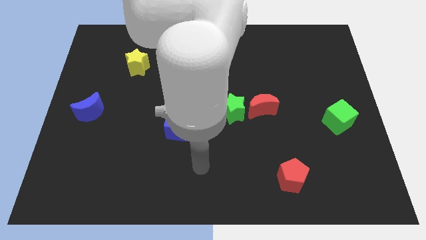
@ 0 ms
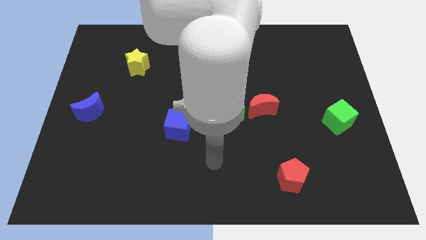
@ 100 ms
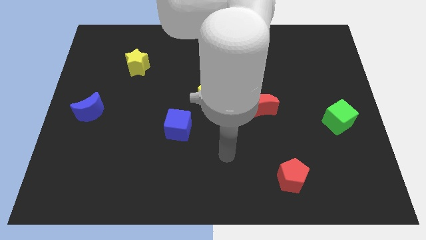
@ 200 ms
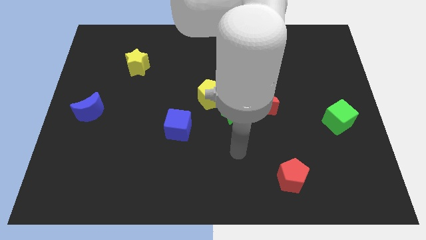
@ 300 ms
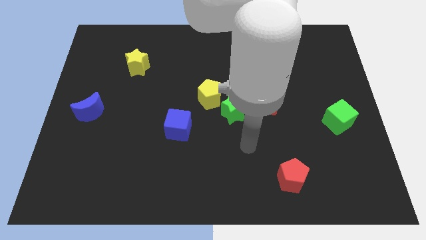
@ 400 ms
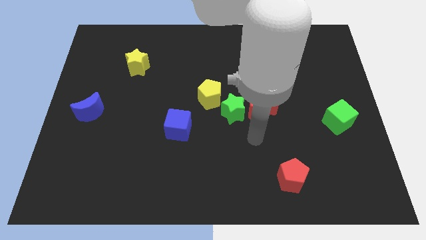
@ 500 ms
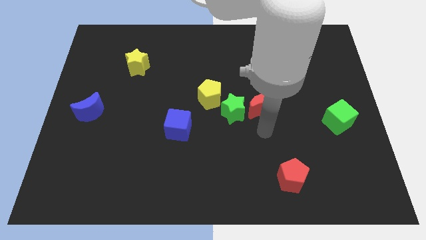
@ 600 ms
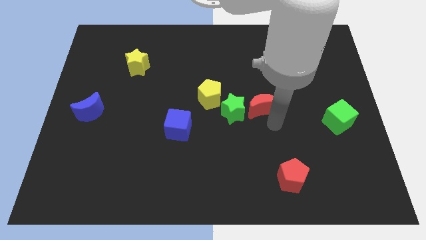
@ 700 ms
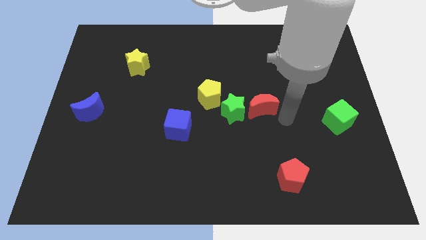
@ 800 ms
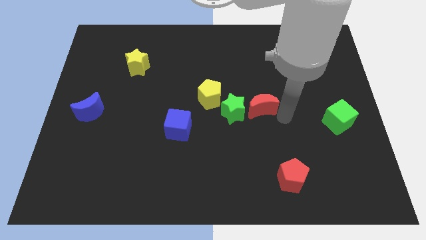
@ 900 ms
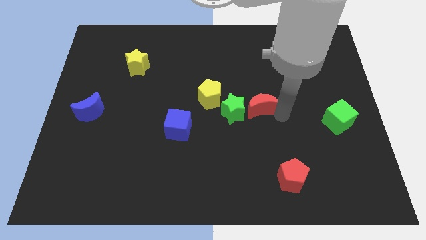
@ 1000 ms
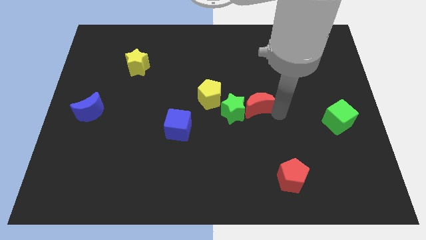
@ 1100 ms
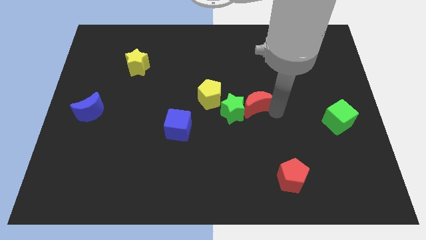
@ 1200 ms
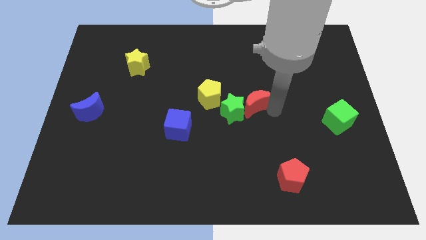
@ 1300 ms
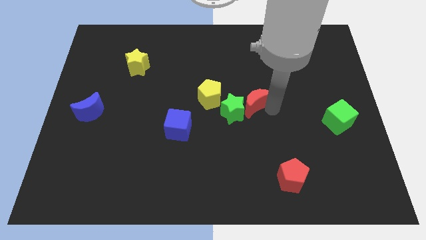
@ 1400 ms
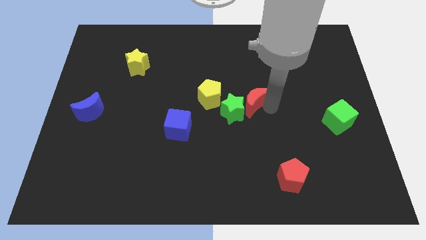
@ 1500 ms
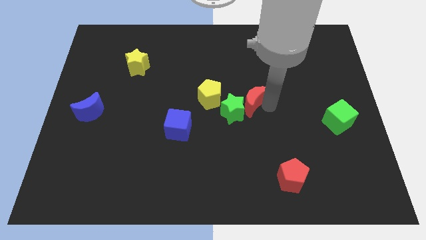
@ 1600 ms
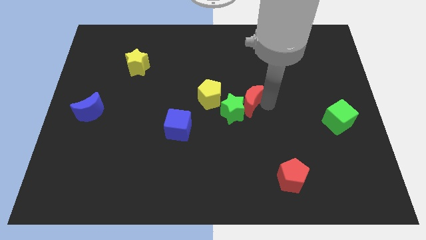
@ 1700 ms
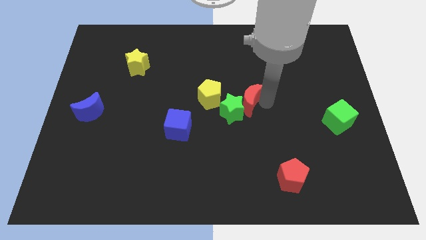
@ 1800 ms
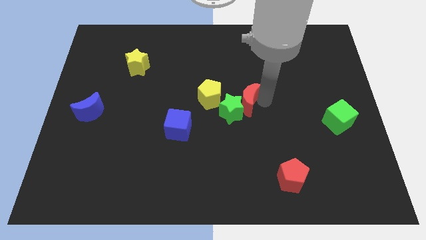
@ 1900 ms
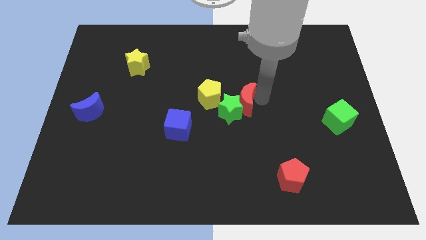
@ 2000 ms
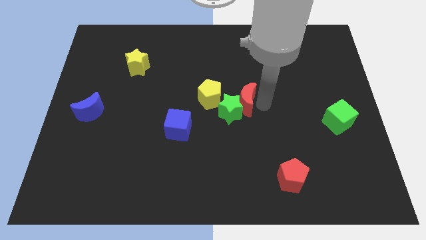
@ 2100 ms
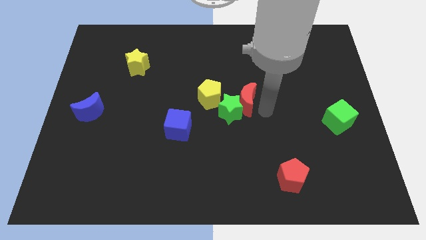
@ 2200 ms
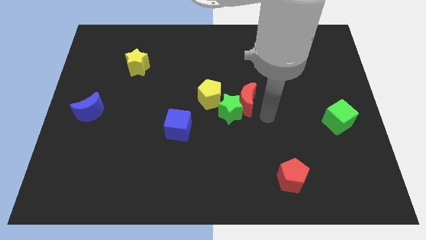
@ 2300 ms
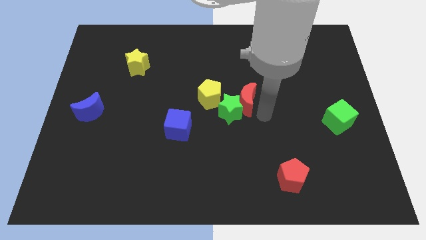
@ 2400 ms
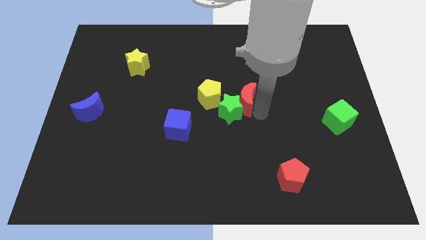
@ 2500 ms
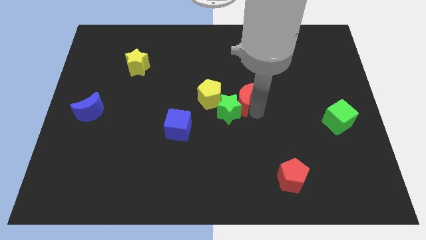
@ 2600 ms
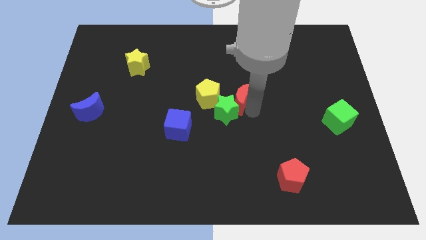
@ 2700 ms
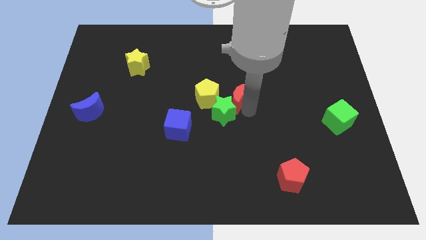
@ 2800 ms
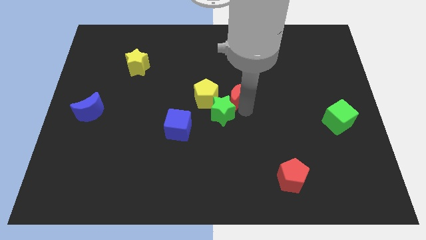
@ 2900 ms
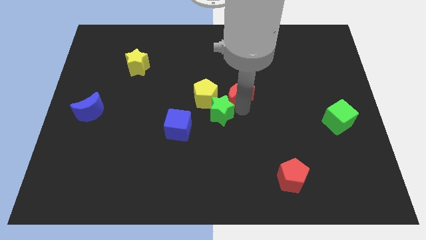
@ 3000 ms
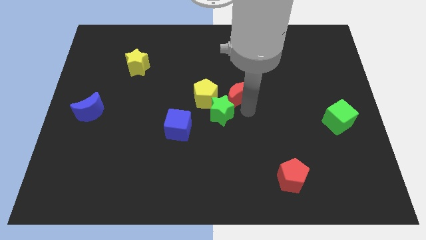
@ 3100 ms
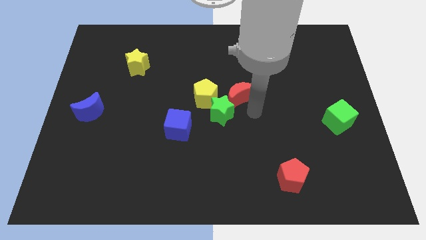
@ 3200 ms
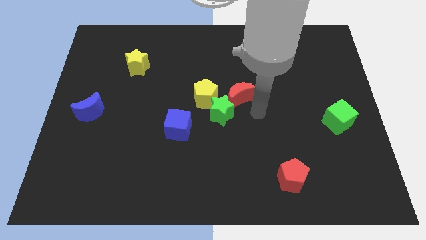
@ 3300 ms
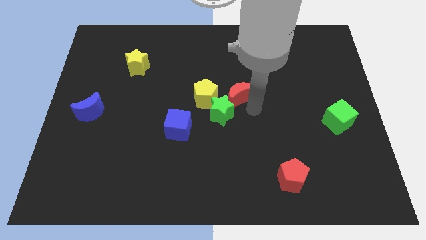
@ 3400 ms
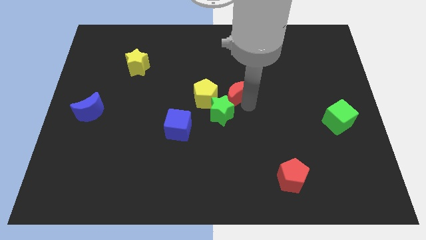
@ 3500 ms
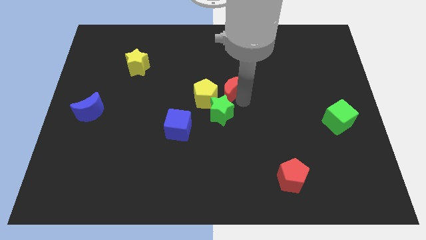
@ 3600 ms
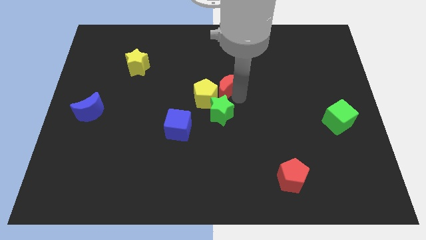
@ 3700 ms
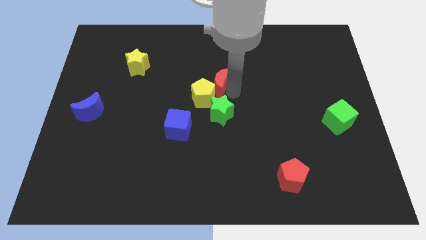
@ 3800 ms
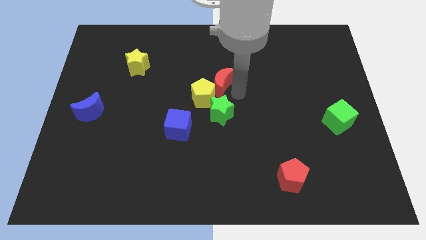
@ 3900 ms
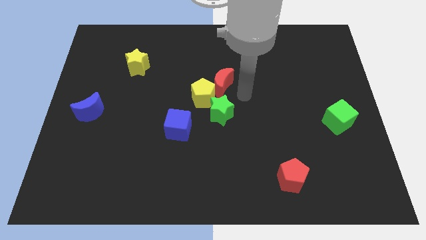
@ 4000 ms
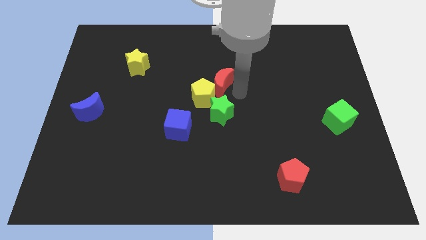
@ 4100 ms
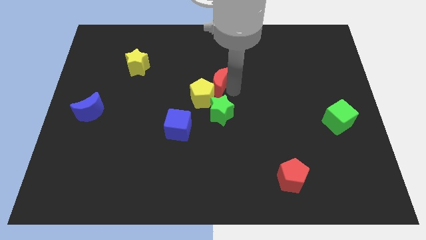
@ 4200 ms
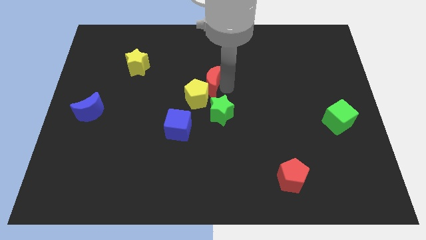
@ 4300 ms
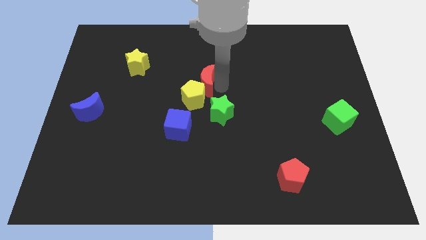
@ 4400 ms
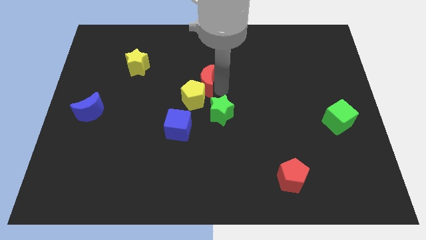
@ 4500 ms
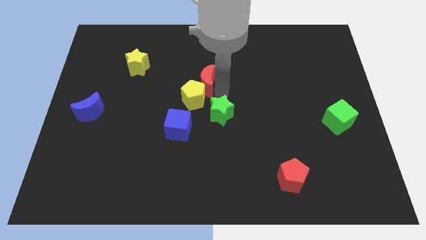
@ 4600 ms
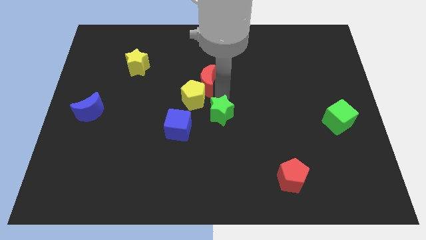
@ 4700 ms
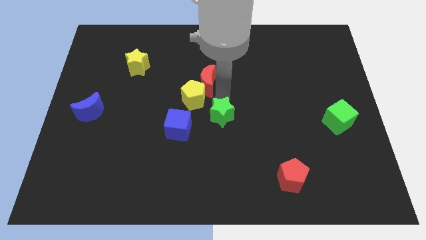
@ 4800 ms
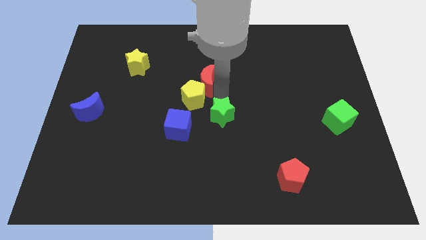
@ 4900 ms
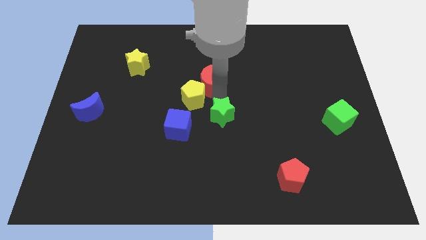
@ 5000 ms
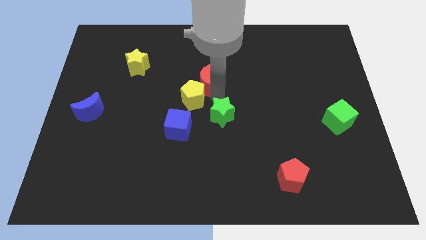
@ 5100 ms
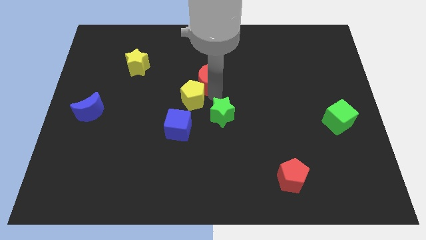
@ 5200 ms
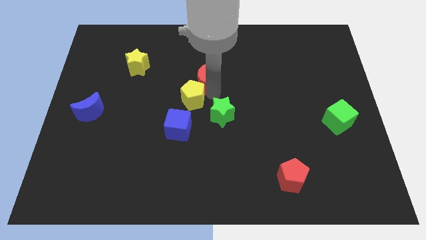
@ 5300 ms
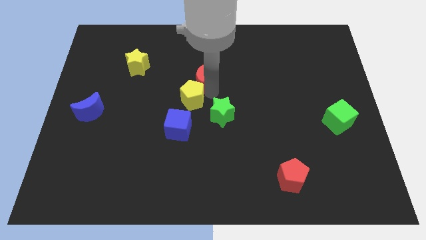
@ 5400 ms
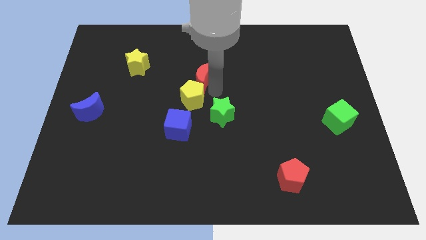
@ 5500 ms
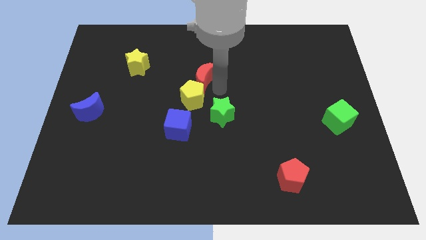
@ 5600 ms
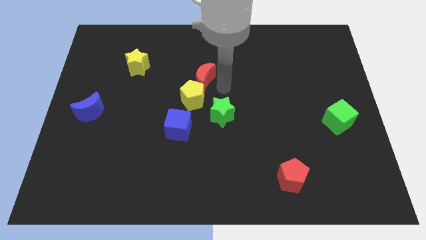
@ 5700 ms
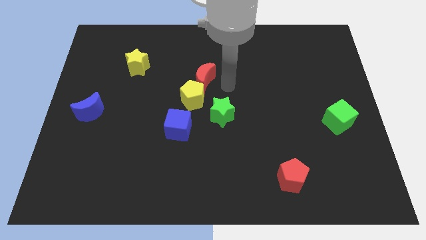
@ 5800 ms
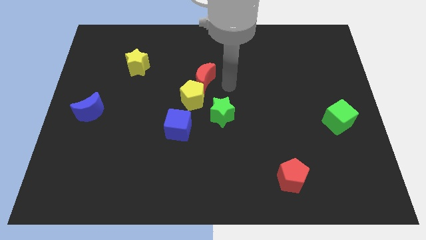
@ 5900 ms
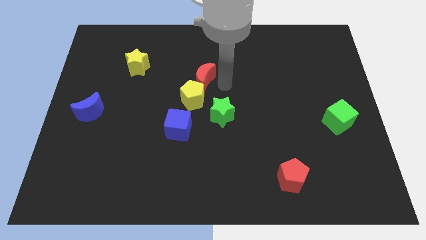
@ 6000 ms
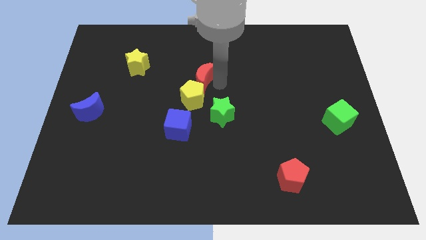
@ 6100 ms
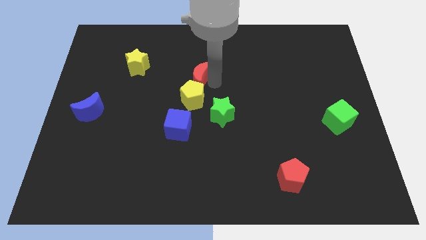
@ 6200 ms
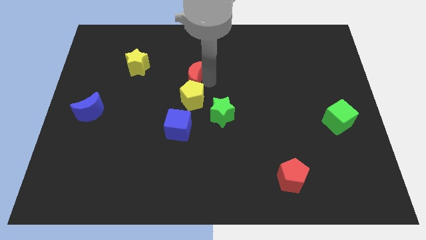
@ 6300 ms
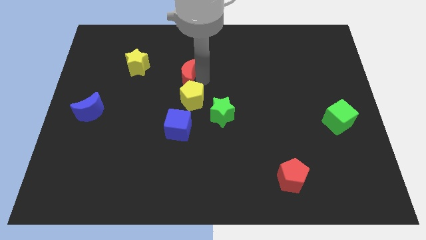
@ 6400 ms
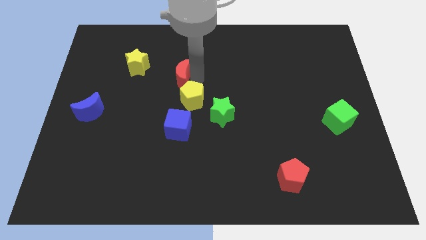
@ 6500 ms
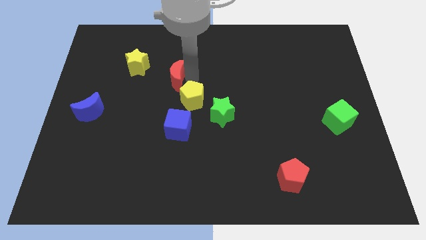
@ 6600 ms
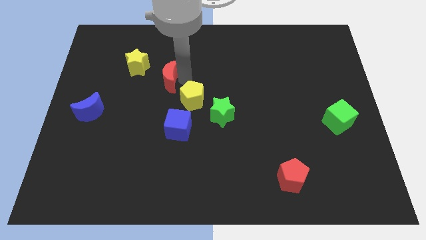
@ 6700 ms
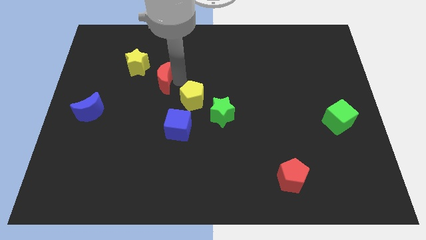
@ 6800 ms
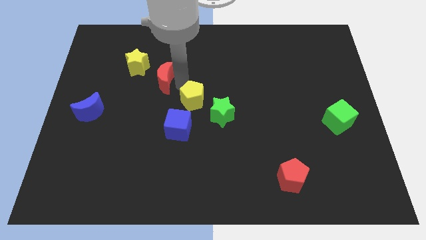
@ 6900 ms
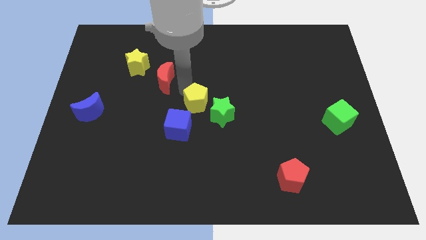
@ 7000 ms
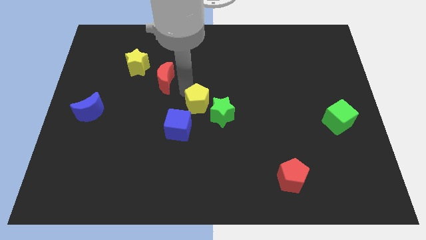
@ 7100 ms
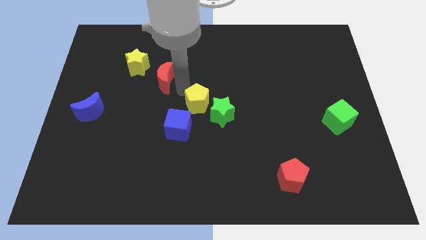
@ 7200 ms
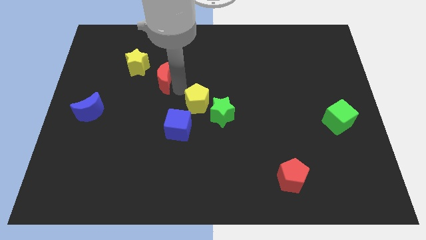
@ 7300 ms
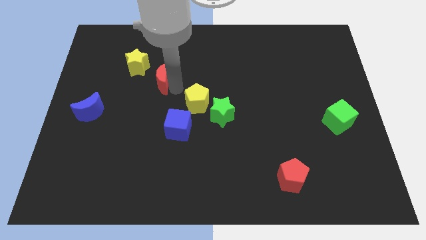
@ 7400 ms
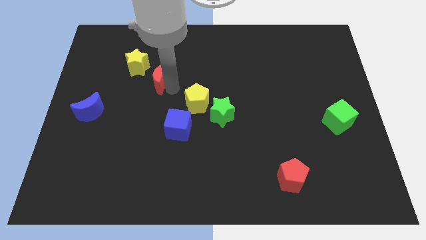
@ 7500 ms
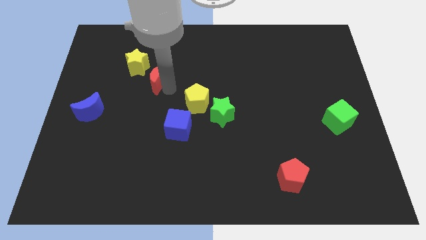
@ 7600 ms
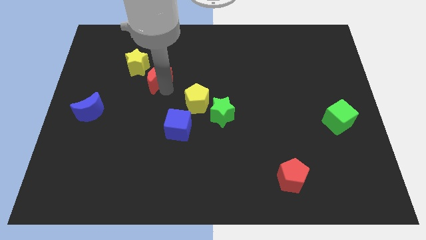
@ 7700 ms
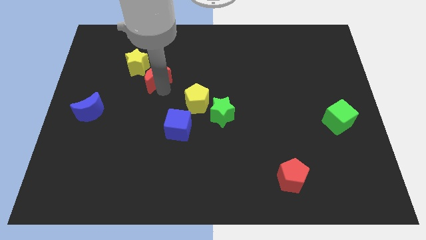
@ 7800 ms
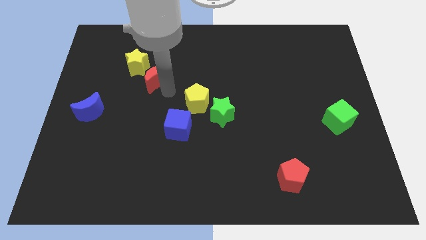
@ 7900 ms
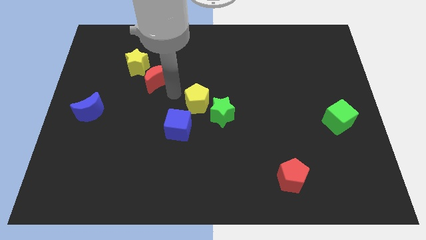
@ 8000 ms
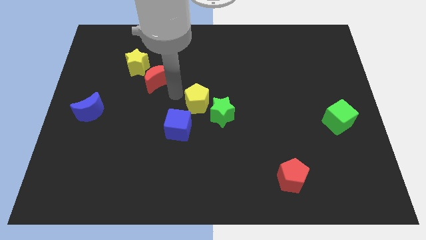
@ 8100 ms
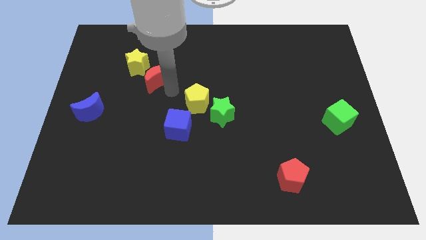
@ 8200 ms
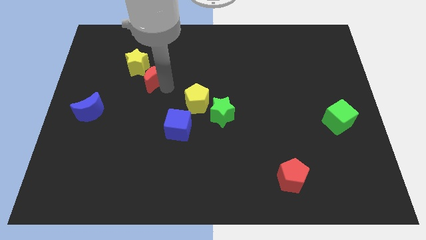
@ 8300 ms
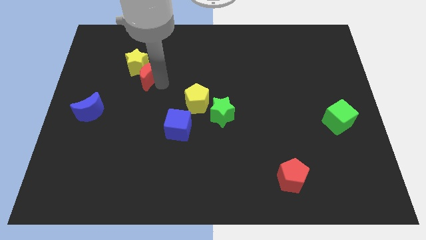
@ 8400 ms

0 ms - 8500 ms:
put the red moon close to the yellow star

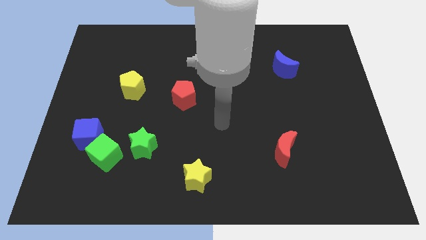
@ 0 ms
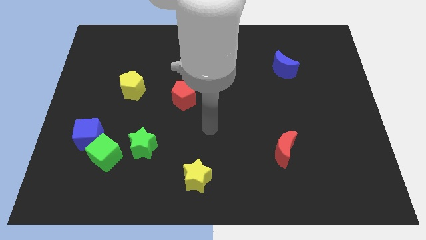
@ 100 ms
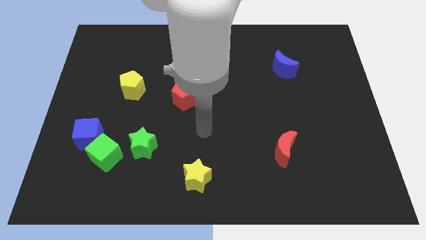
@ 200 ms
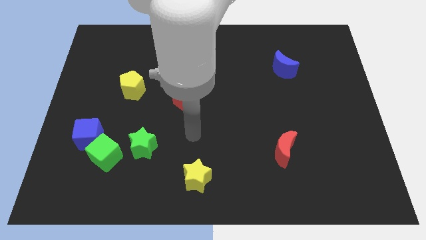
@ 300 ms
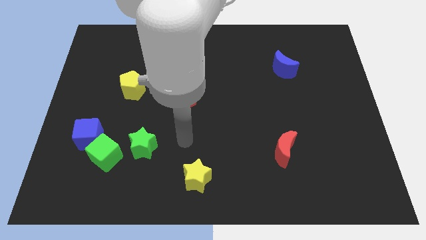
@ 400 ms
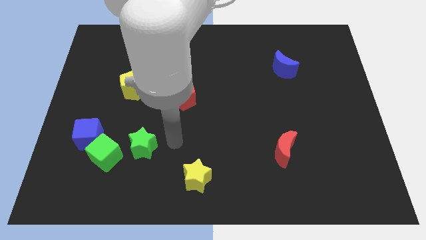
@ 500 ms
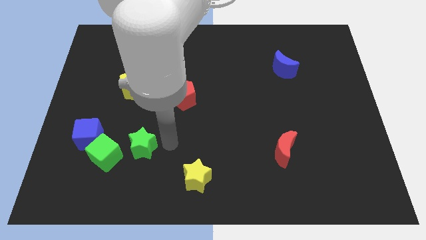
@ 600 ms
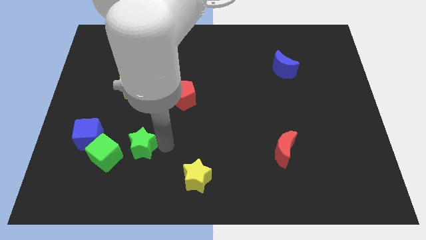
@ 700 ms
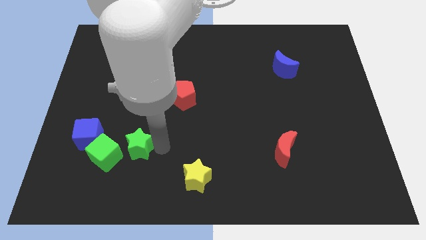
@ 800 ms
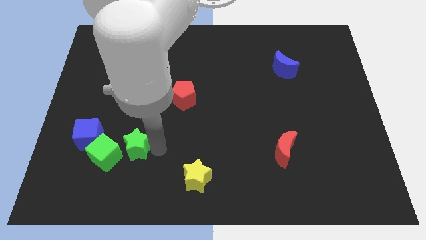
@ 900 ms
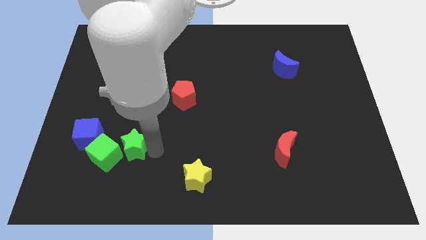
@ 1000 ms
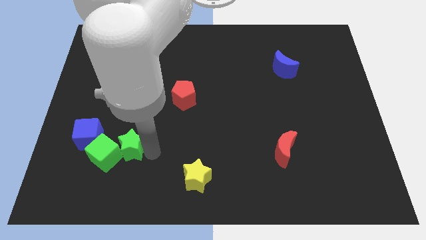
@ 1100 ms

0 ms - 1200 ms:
slide the green star close to the green cube
